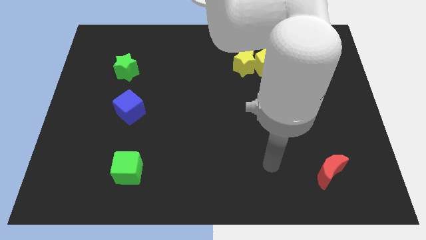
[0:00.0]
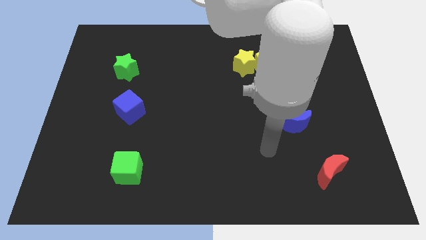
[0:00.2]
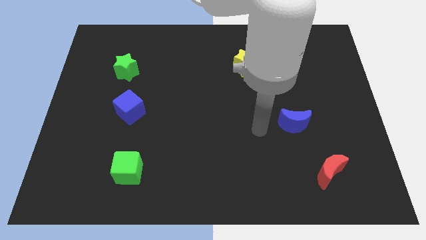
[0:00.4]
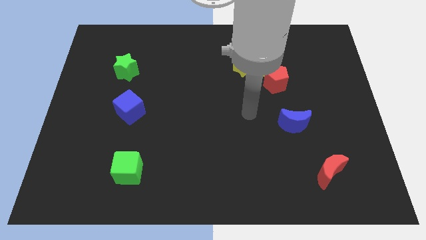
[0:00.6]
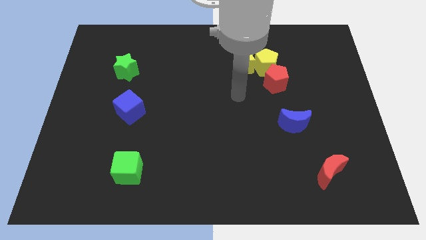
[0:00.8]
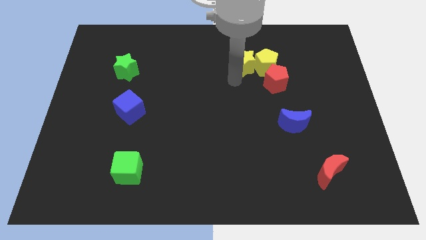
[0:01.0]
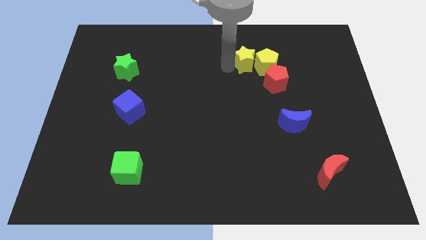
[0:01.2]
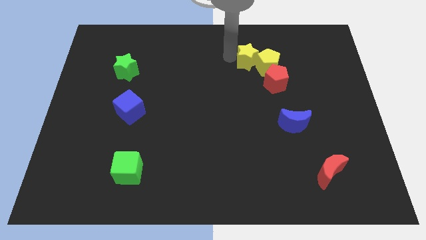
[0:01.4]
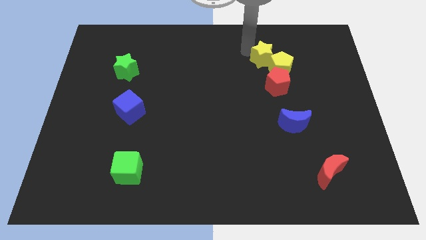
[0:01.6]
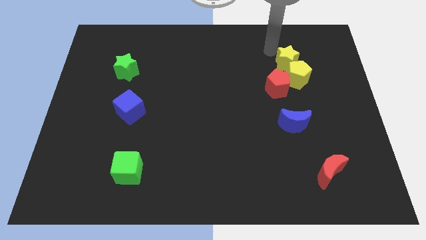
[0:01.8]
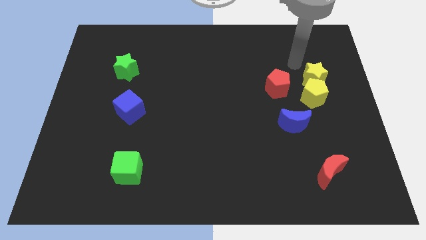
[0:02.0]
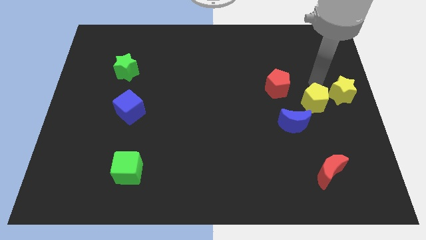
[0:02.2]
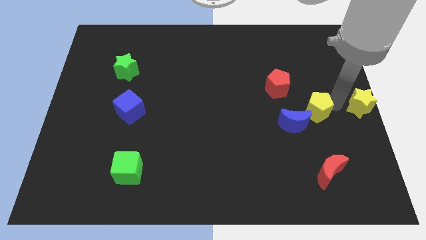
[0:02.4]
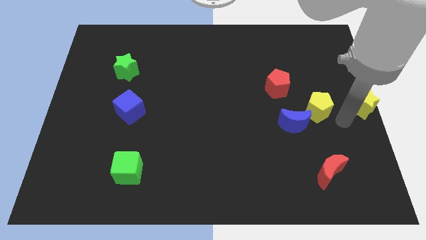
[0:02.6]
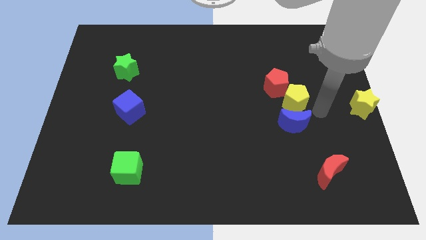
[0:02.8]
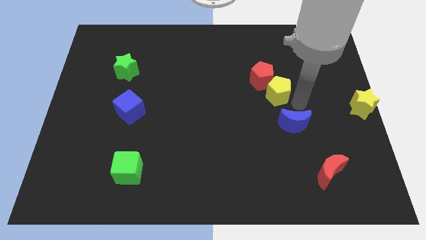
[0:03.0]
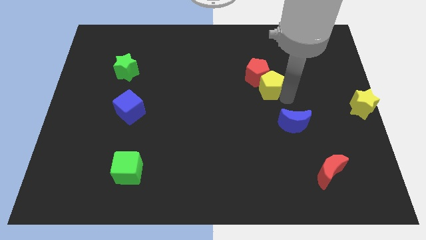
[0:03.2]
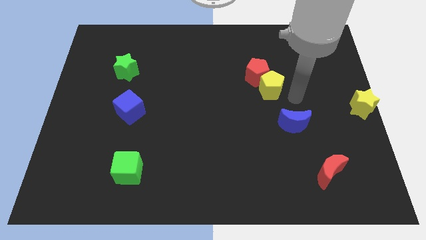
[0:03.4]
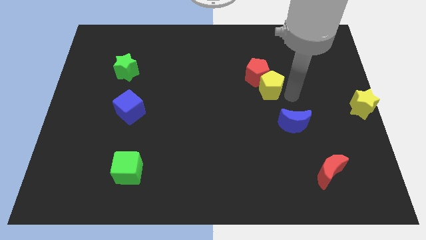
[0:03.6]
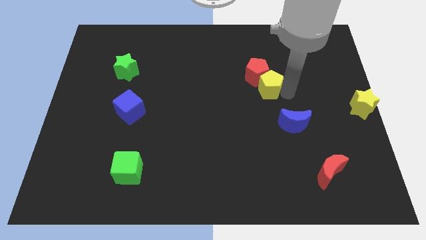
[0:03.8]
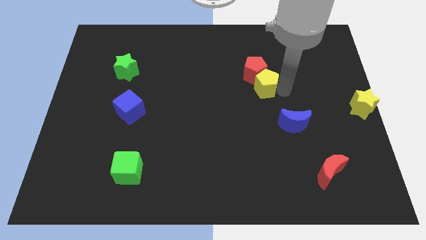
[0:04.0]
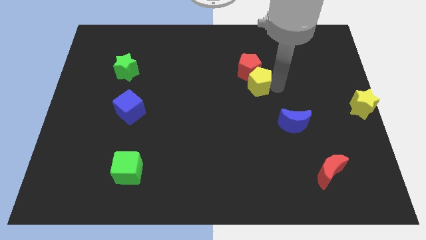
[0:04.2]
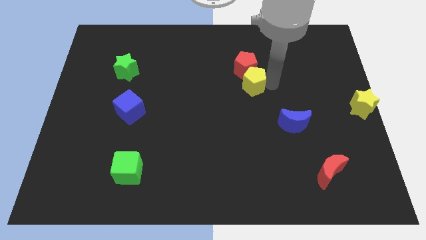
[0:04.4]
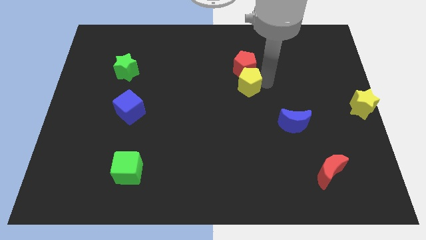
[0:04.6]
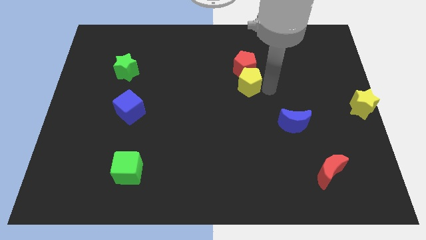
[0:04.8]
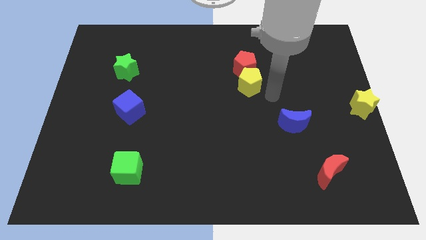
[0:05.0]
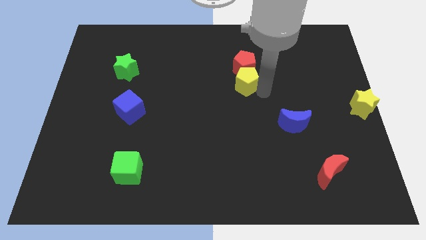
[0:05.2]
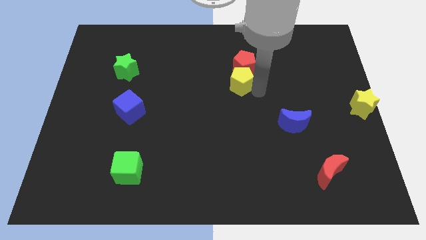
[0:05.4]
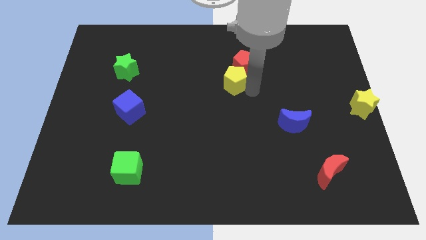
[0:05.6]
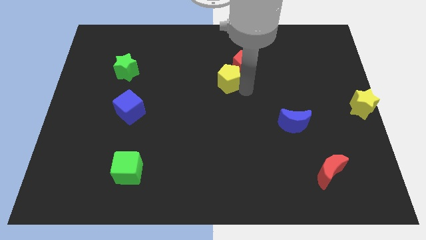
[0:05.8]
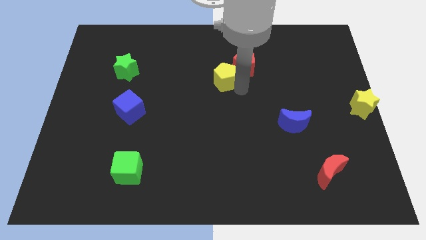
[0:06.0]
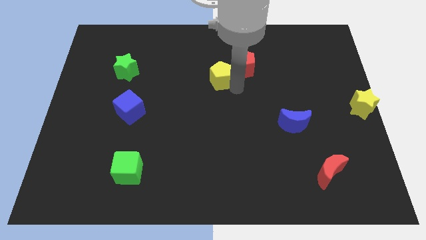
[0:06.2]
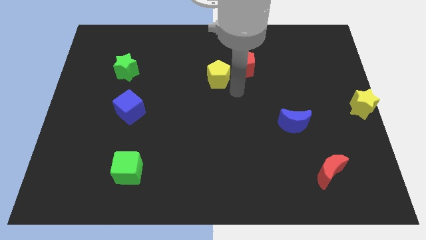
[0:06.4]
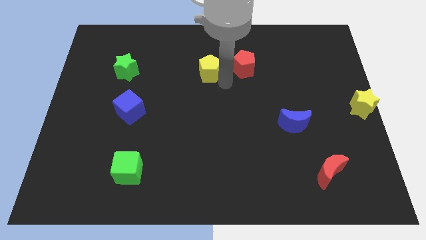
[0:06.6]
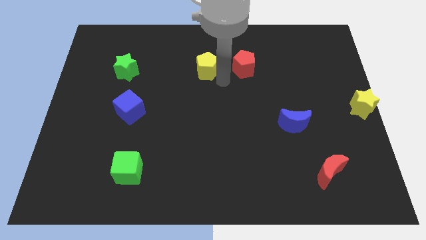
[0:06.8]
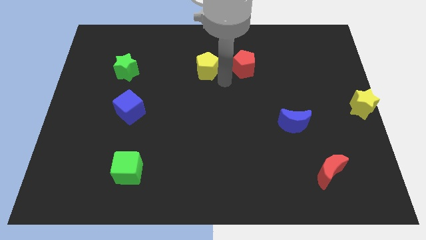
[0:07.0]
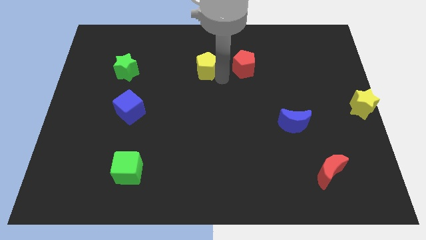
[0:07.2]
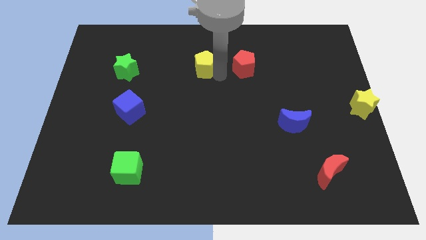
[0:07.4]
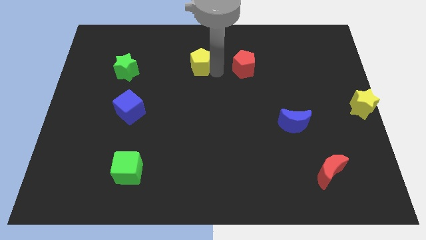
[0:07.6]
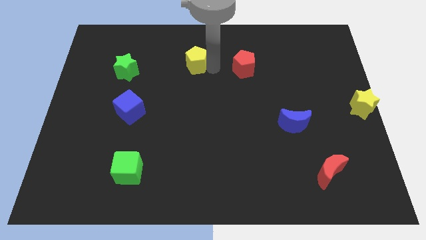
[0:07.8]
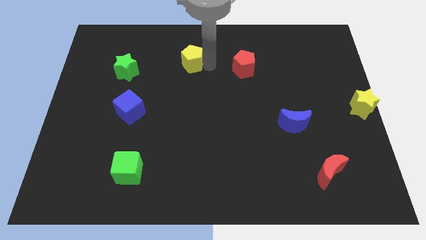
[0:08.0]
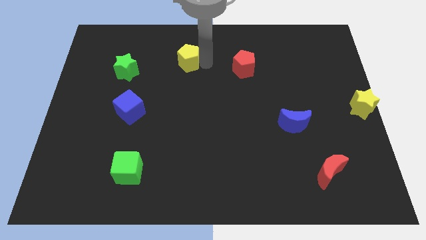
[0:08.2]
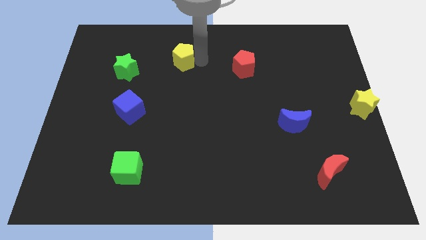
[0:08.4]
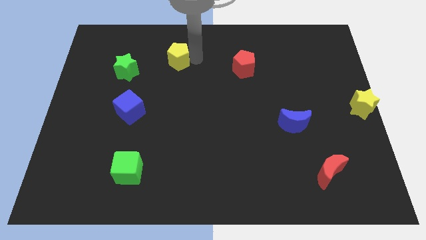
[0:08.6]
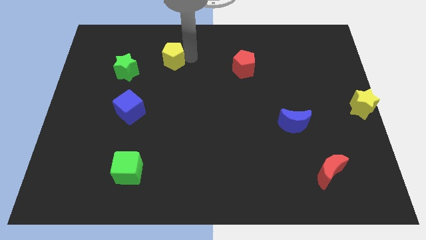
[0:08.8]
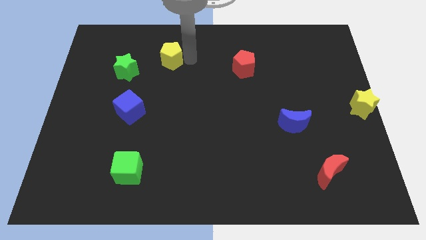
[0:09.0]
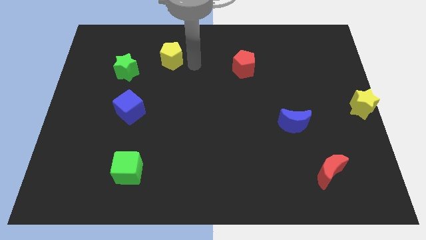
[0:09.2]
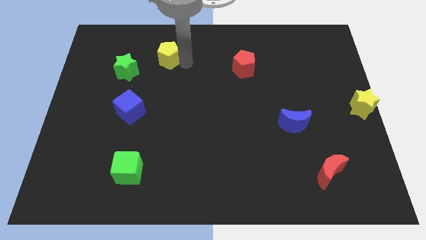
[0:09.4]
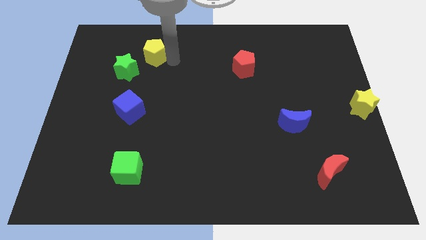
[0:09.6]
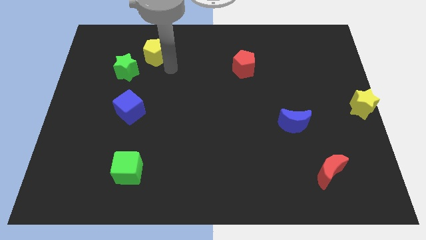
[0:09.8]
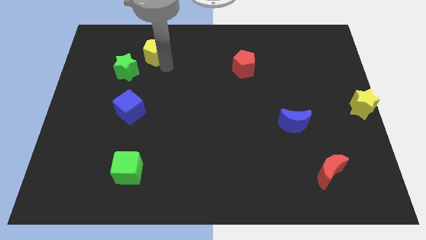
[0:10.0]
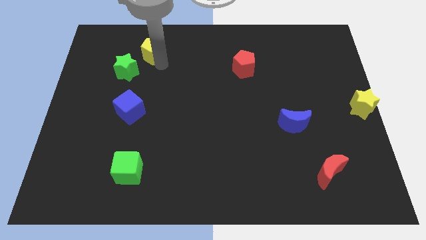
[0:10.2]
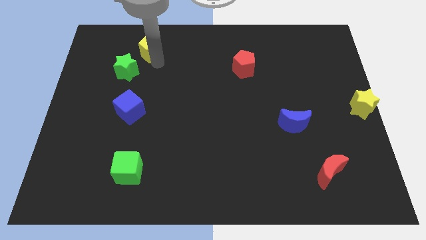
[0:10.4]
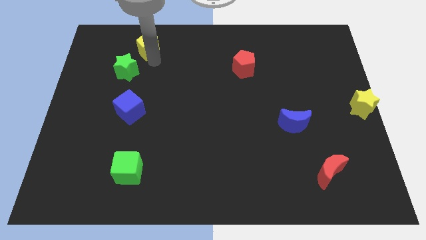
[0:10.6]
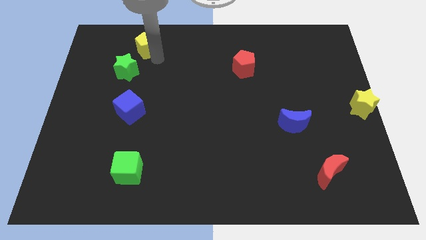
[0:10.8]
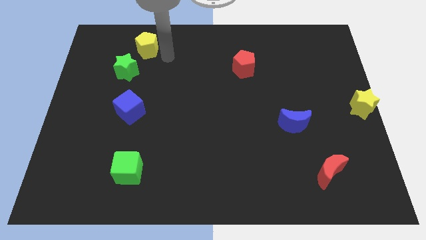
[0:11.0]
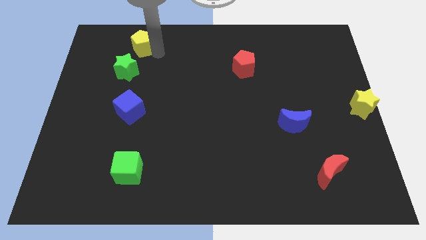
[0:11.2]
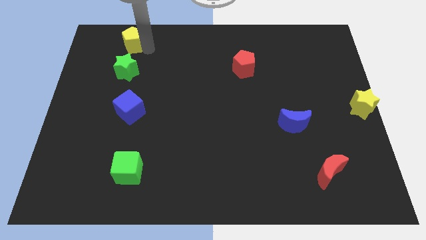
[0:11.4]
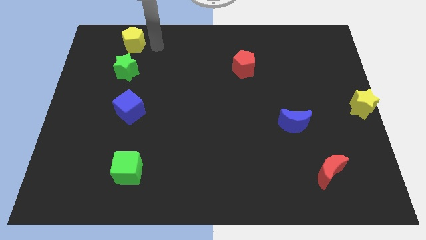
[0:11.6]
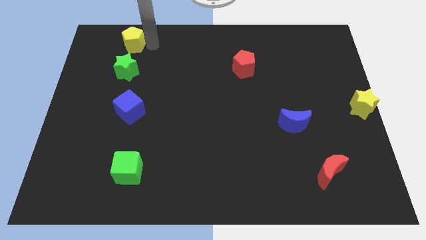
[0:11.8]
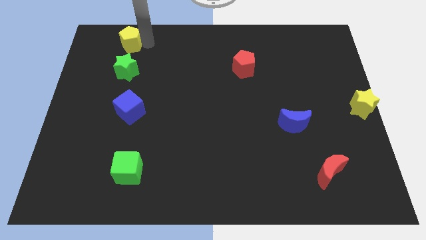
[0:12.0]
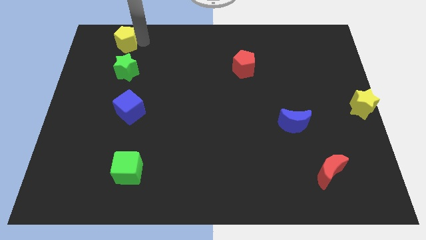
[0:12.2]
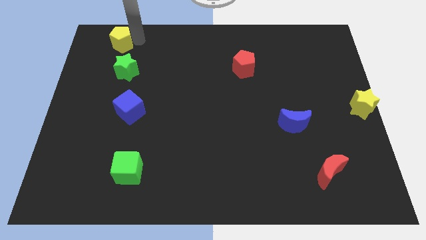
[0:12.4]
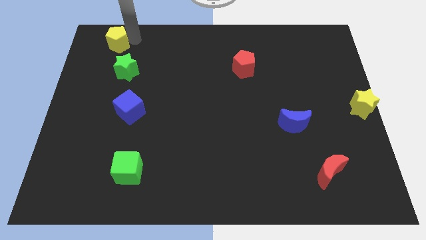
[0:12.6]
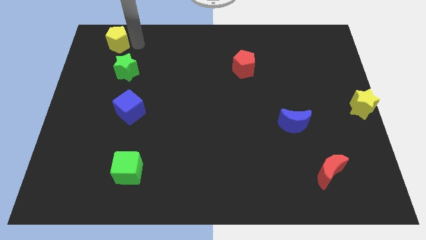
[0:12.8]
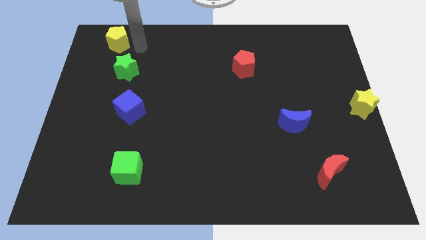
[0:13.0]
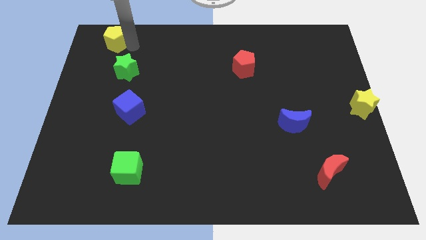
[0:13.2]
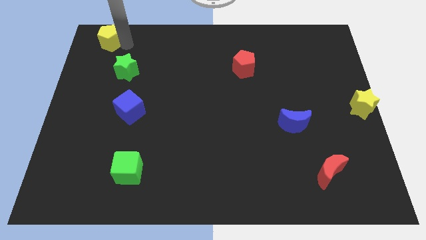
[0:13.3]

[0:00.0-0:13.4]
push the yellow pentagon to the top left

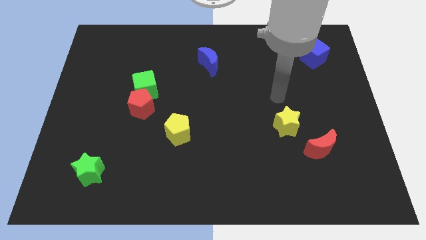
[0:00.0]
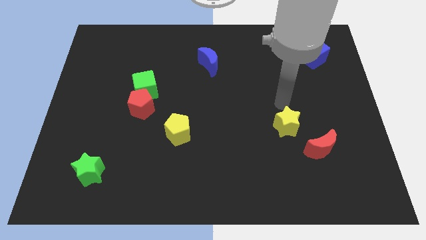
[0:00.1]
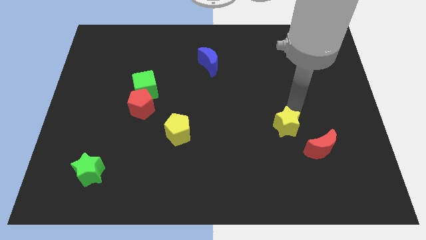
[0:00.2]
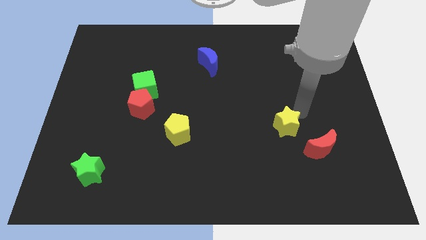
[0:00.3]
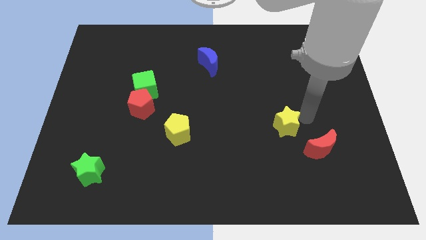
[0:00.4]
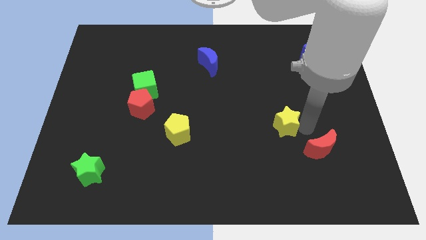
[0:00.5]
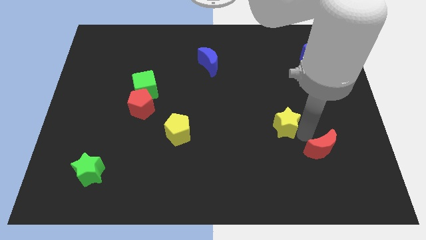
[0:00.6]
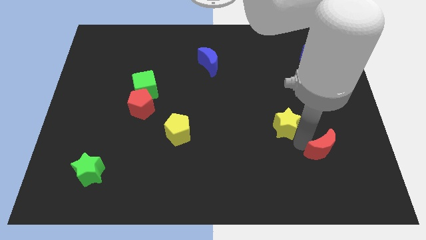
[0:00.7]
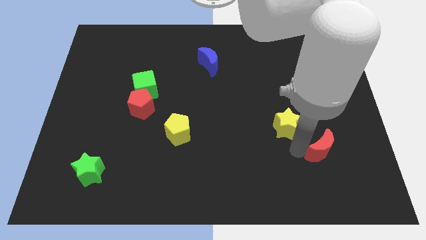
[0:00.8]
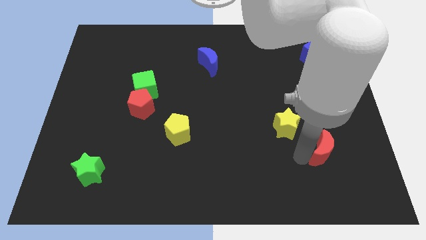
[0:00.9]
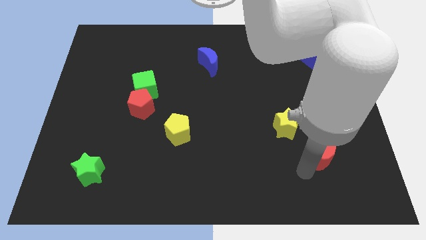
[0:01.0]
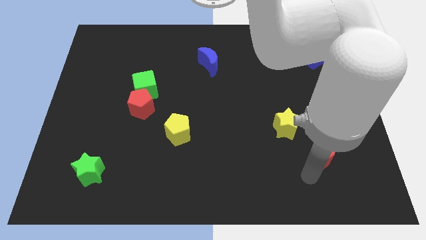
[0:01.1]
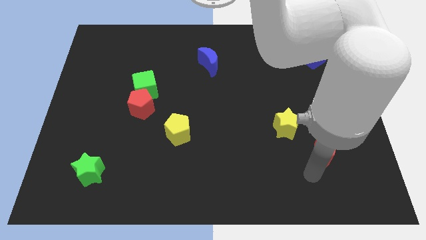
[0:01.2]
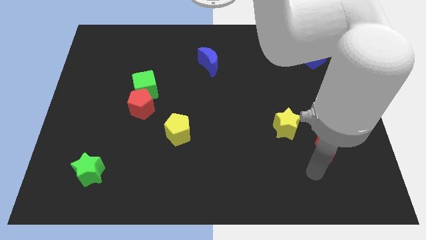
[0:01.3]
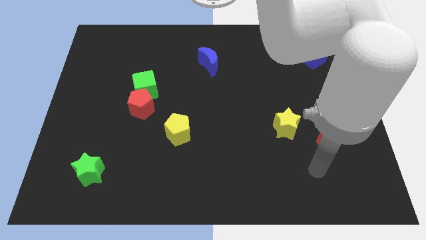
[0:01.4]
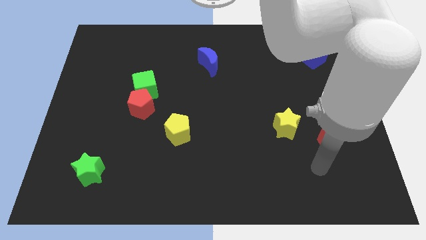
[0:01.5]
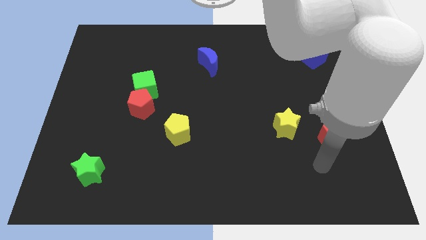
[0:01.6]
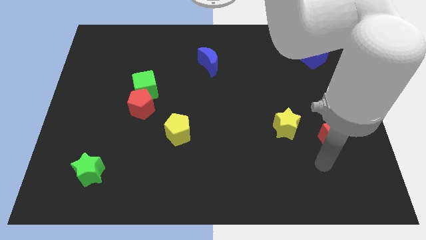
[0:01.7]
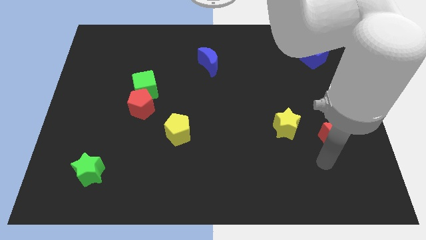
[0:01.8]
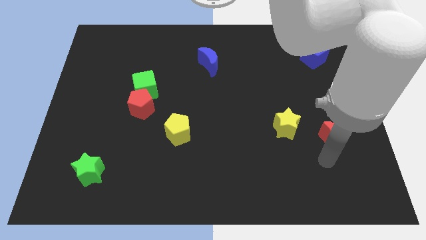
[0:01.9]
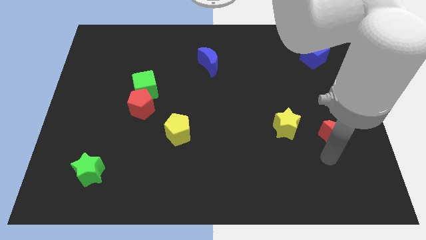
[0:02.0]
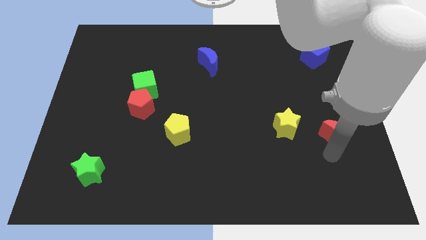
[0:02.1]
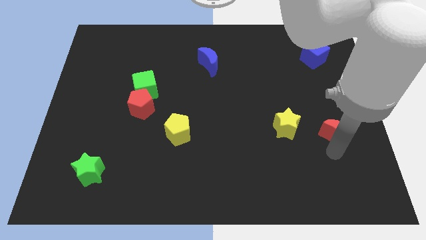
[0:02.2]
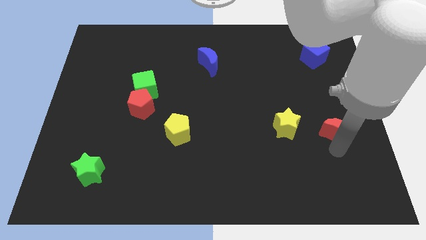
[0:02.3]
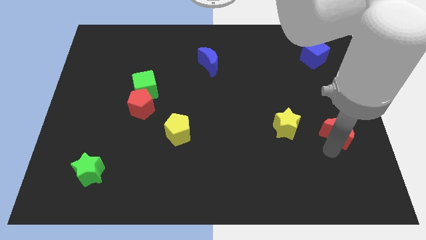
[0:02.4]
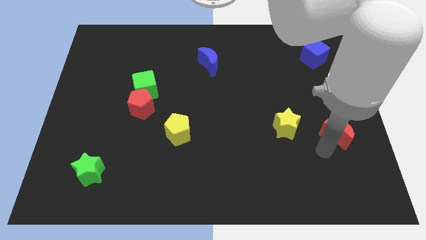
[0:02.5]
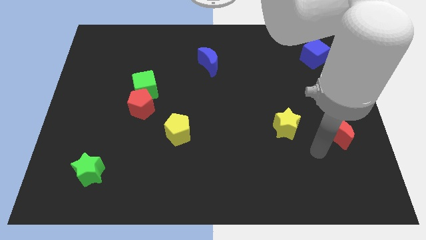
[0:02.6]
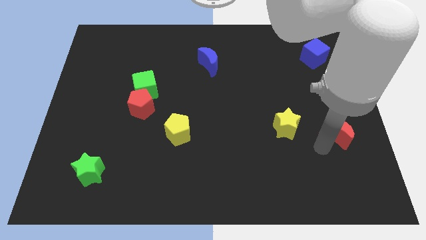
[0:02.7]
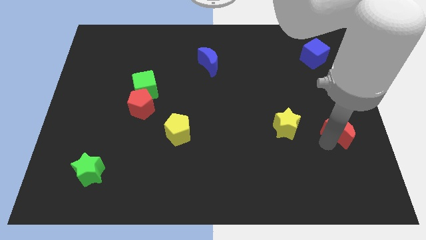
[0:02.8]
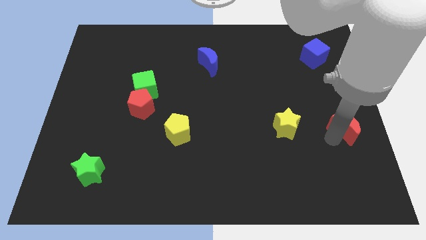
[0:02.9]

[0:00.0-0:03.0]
slide the red moon to the center right
